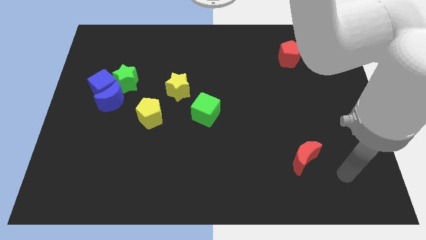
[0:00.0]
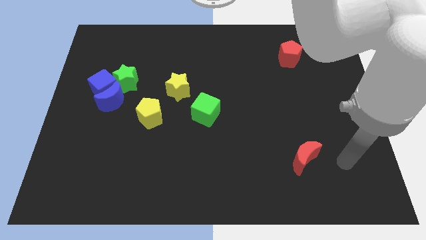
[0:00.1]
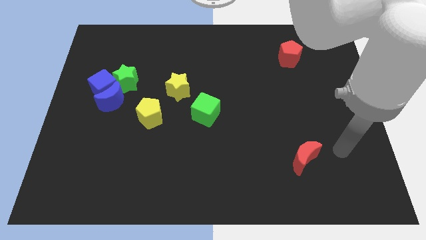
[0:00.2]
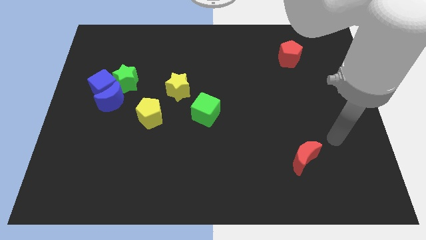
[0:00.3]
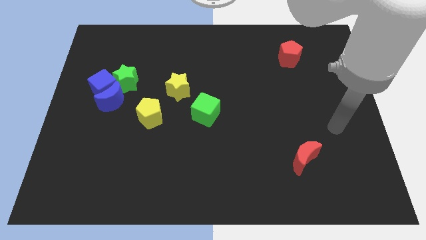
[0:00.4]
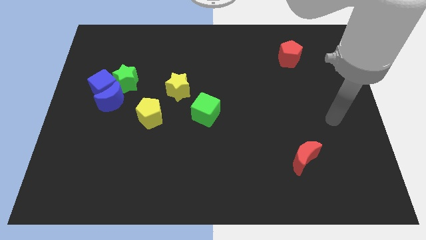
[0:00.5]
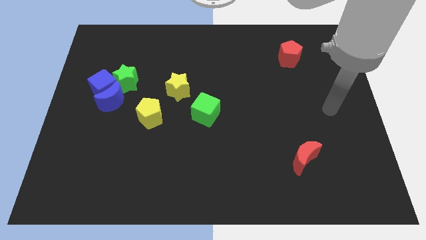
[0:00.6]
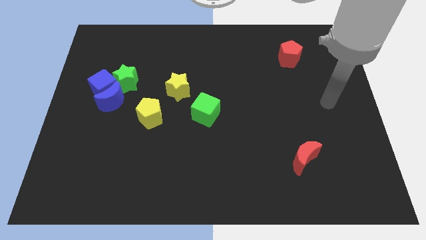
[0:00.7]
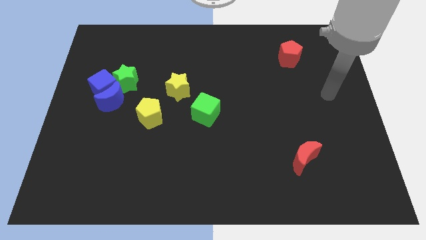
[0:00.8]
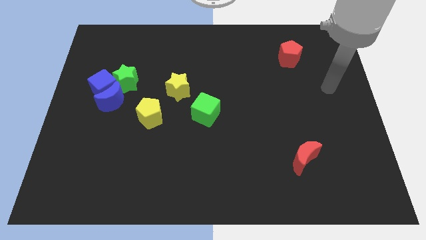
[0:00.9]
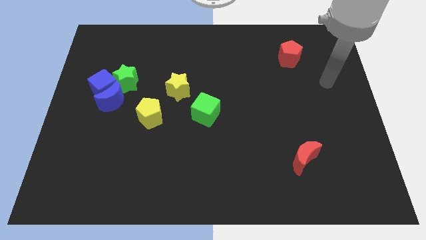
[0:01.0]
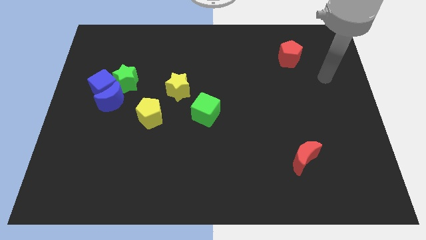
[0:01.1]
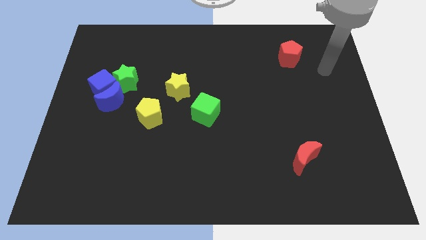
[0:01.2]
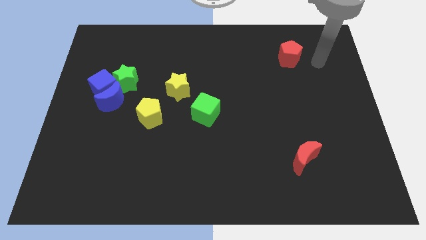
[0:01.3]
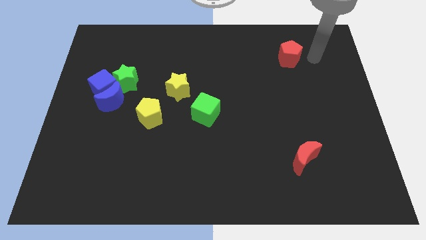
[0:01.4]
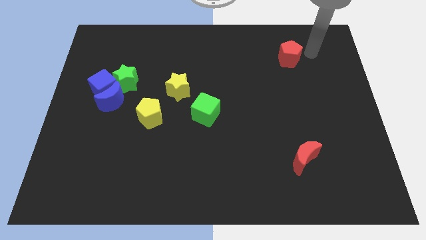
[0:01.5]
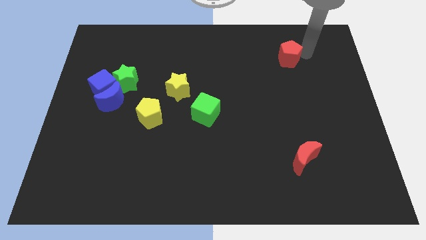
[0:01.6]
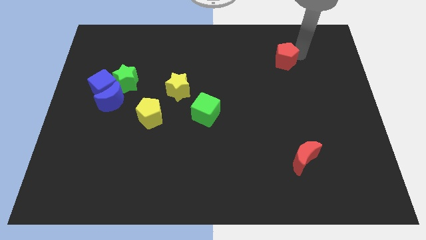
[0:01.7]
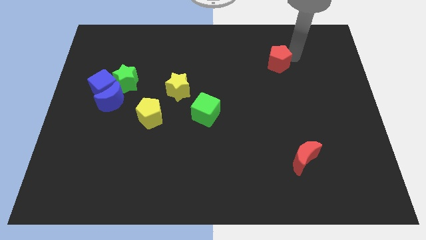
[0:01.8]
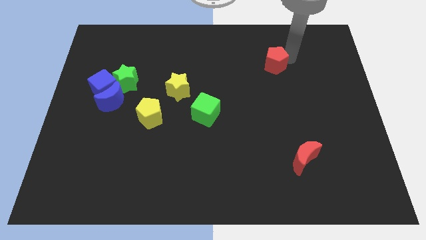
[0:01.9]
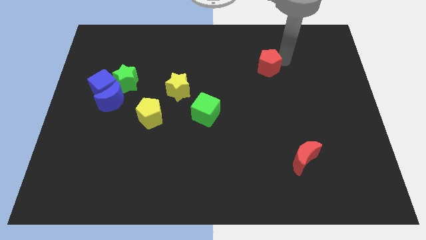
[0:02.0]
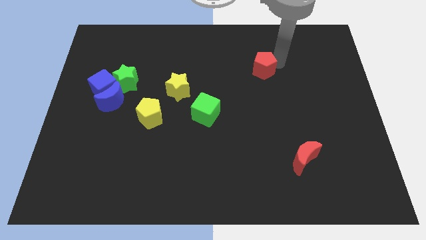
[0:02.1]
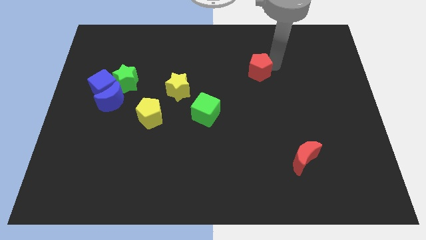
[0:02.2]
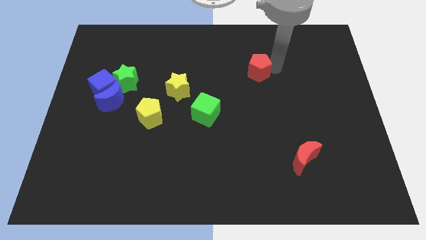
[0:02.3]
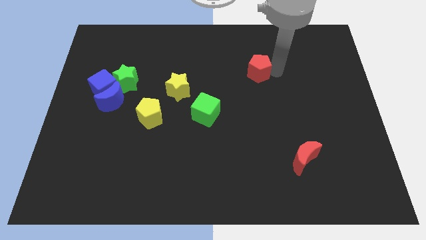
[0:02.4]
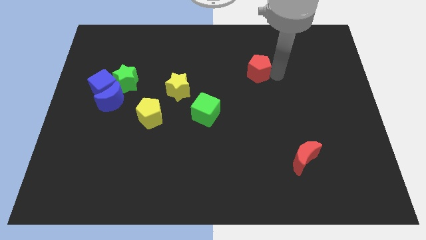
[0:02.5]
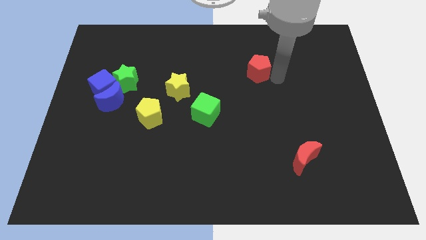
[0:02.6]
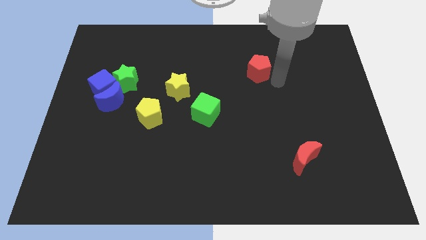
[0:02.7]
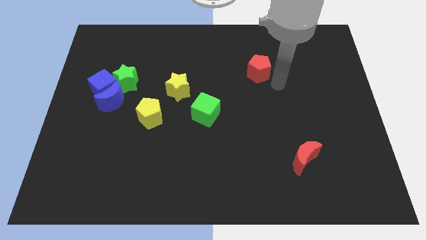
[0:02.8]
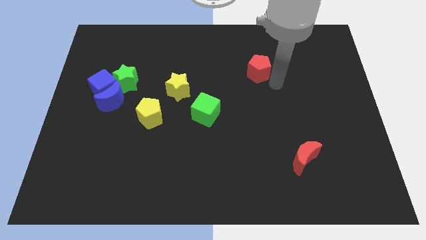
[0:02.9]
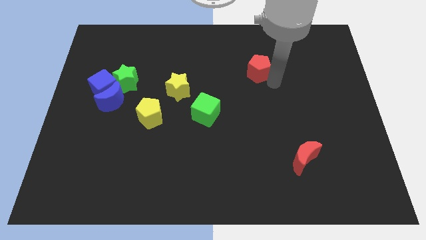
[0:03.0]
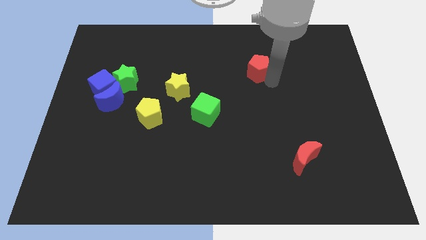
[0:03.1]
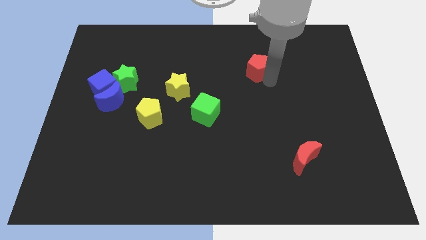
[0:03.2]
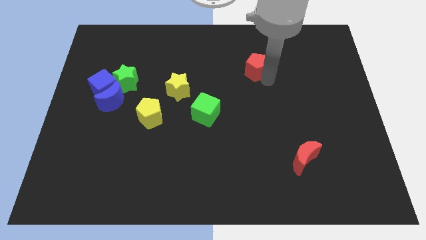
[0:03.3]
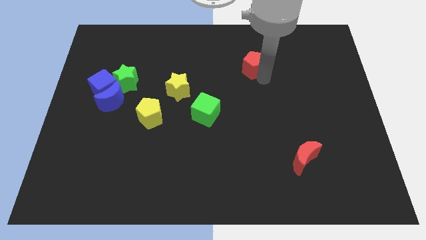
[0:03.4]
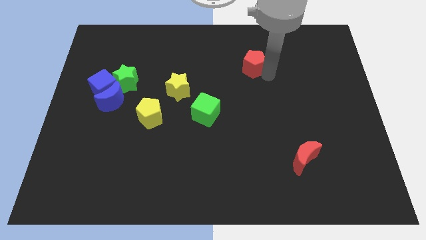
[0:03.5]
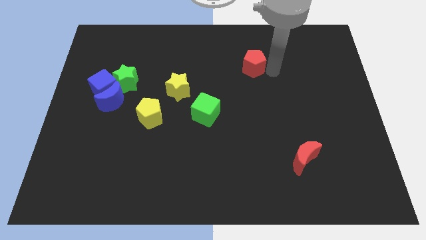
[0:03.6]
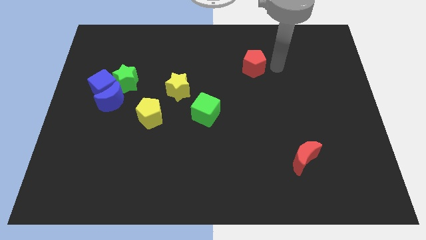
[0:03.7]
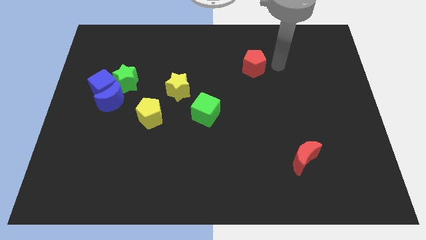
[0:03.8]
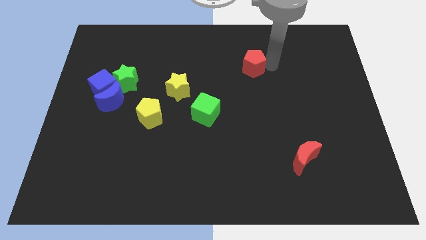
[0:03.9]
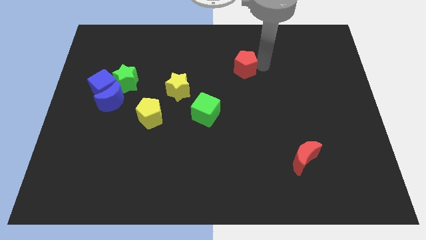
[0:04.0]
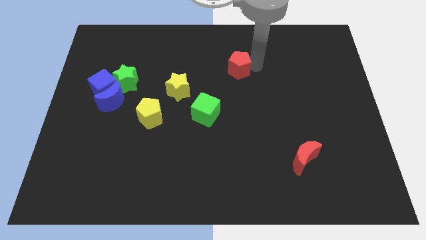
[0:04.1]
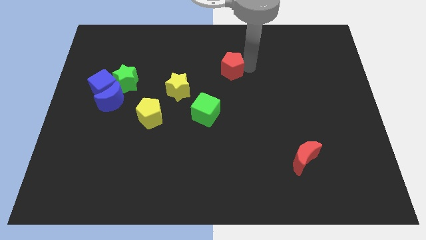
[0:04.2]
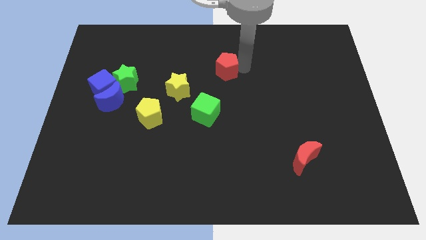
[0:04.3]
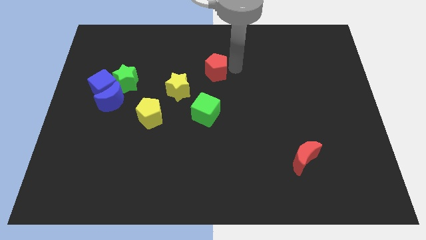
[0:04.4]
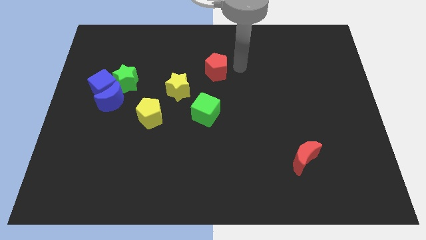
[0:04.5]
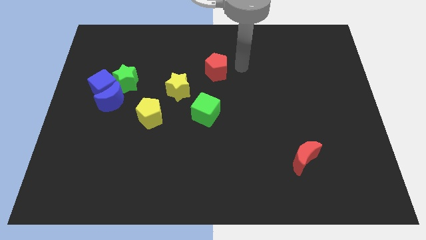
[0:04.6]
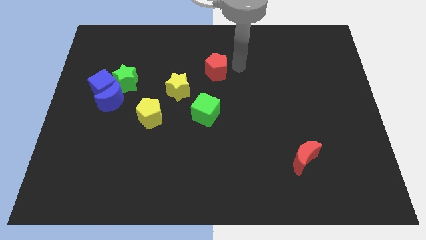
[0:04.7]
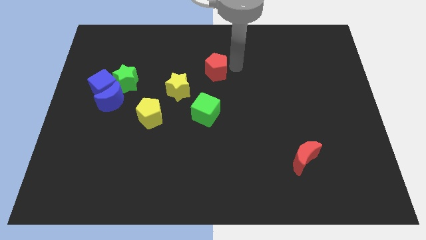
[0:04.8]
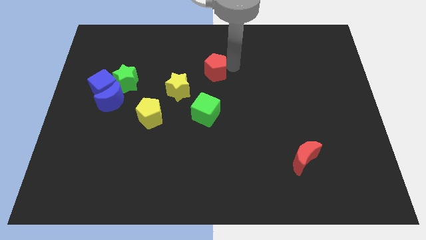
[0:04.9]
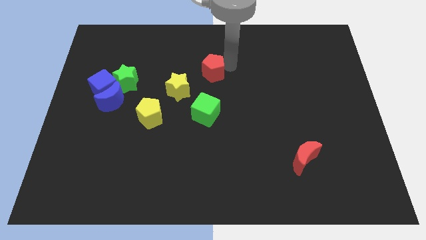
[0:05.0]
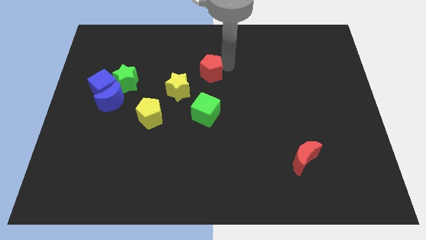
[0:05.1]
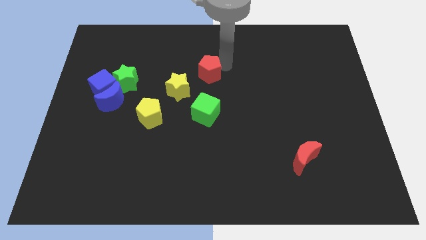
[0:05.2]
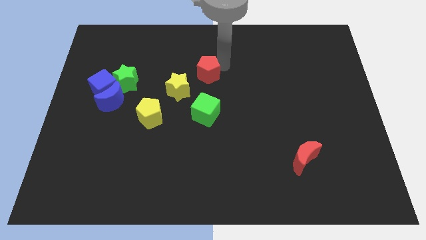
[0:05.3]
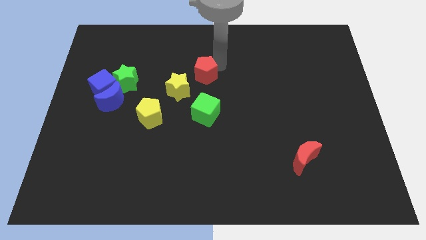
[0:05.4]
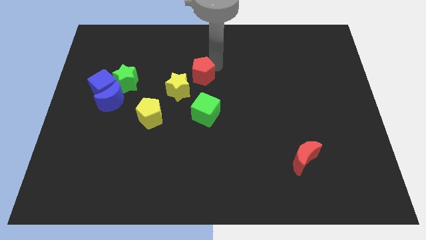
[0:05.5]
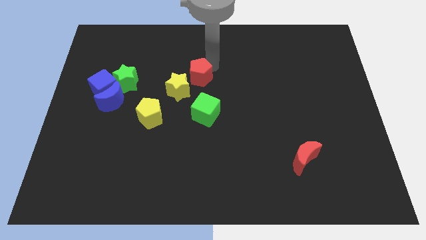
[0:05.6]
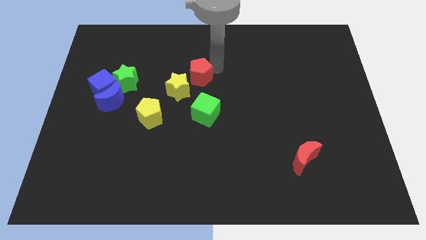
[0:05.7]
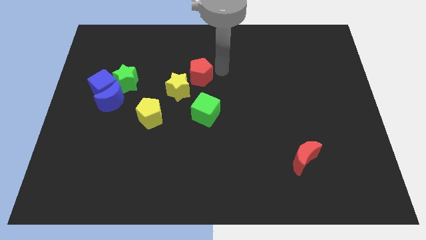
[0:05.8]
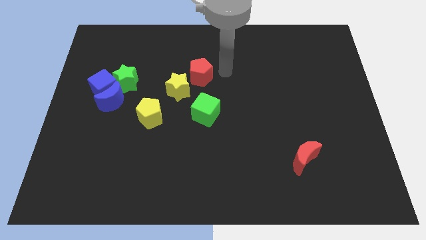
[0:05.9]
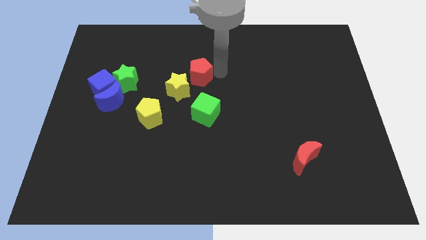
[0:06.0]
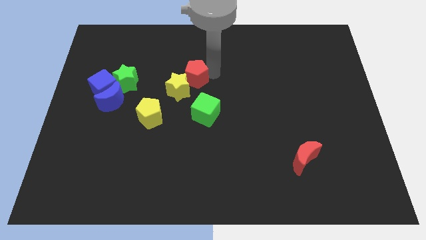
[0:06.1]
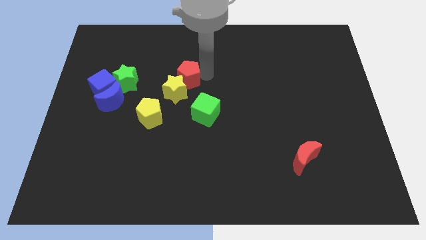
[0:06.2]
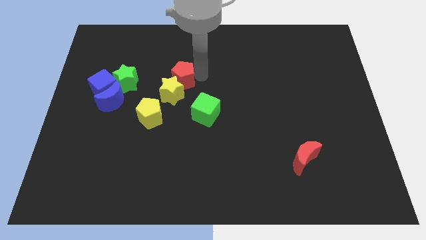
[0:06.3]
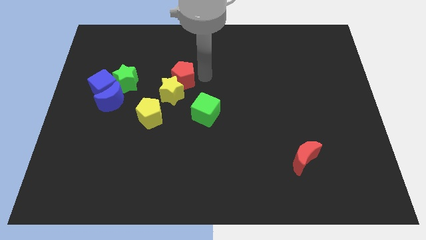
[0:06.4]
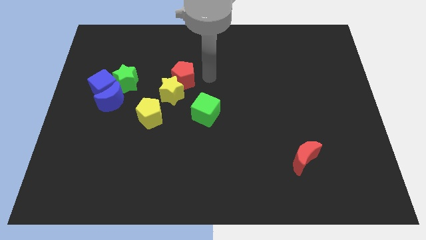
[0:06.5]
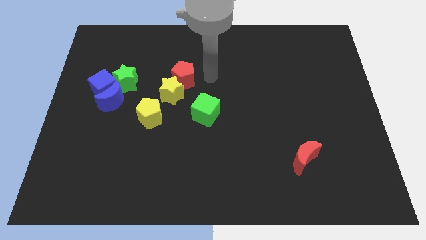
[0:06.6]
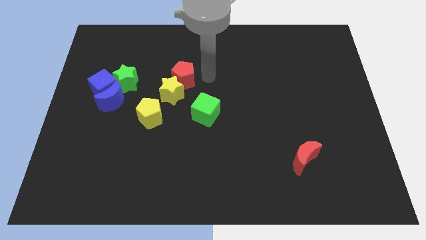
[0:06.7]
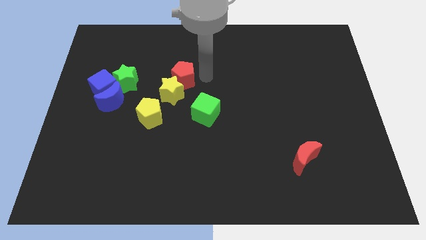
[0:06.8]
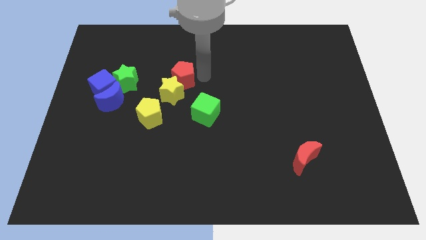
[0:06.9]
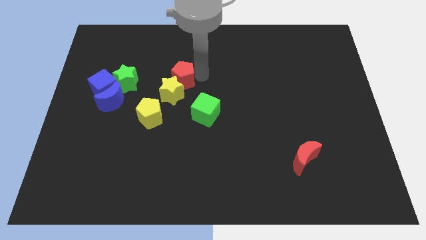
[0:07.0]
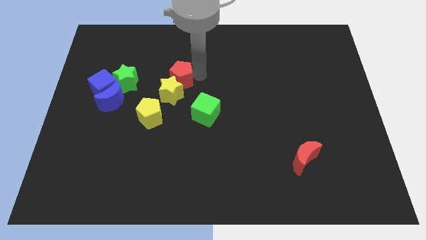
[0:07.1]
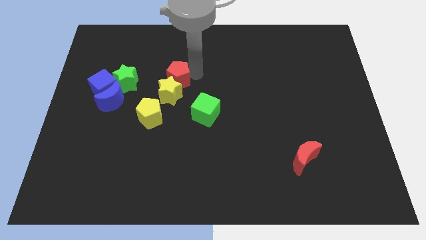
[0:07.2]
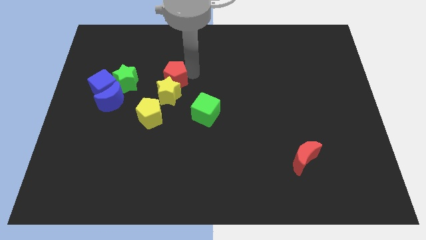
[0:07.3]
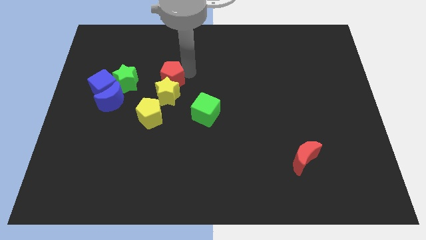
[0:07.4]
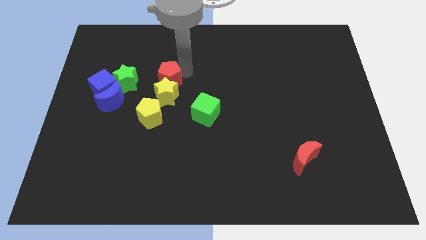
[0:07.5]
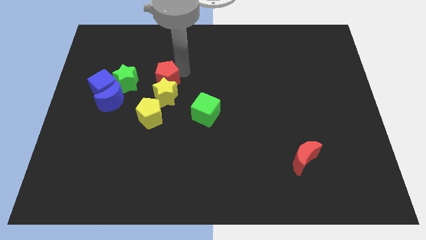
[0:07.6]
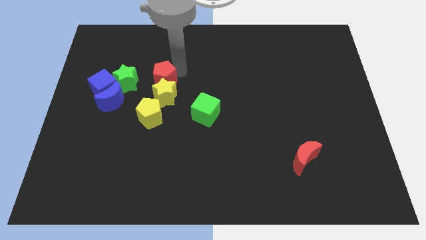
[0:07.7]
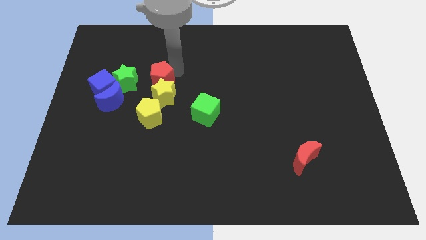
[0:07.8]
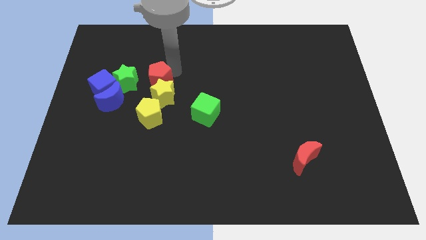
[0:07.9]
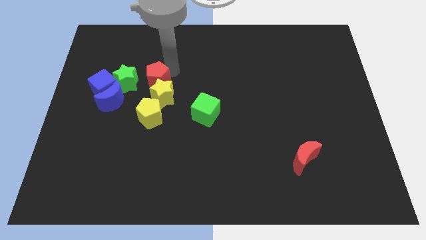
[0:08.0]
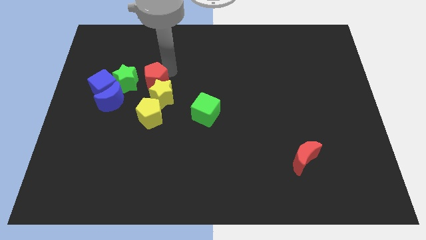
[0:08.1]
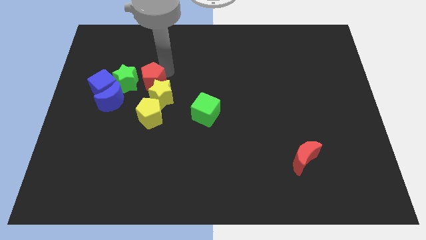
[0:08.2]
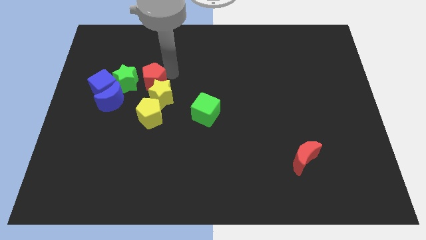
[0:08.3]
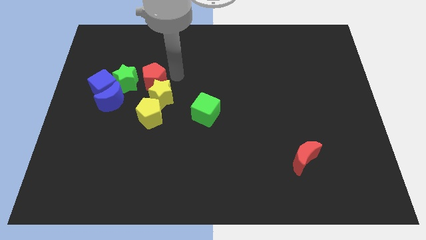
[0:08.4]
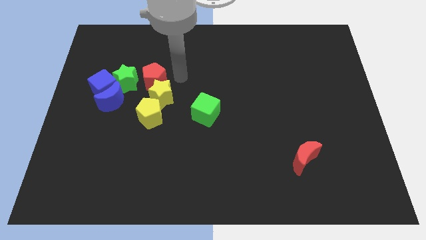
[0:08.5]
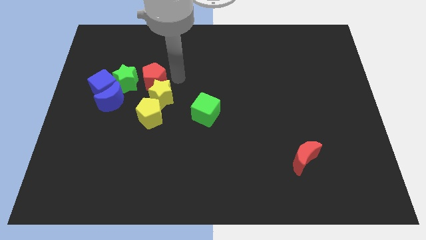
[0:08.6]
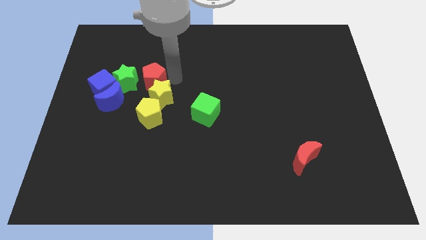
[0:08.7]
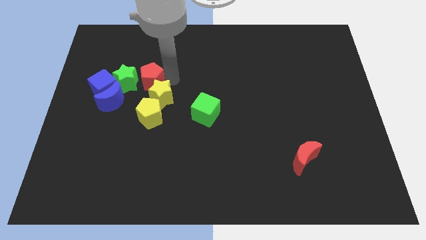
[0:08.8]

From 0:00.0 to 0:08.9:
push the red pentagon to the green star
